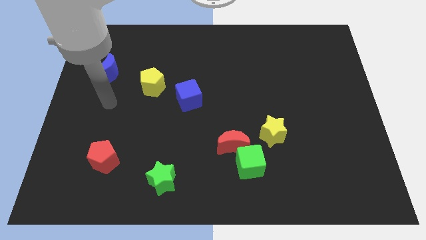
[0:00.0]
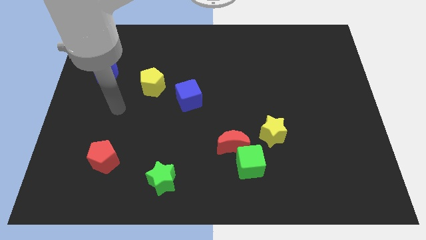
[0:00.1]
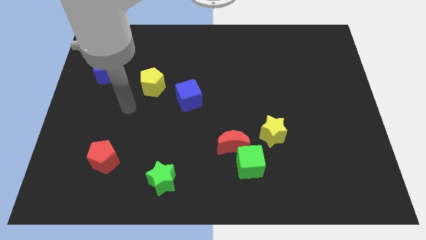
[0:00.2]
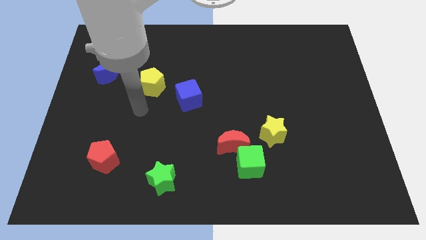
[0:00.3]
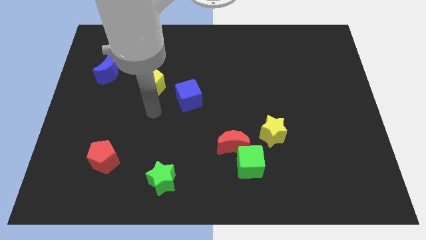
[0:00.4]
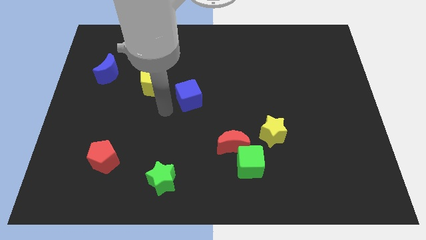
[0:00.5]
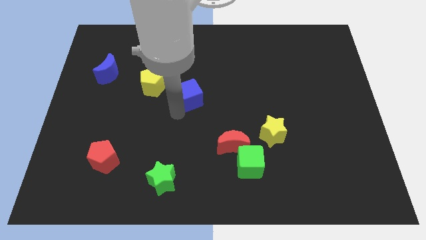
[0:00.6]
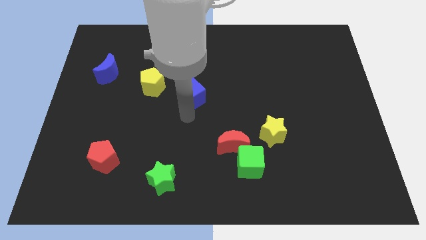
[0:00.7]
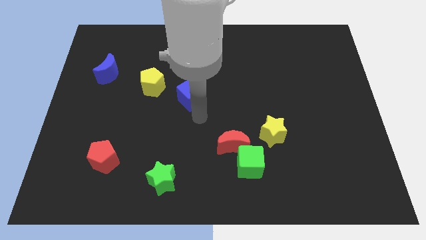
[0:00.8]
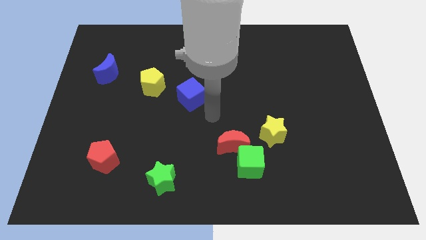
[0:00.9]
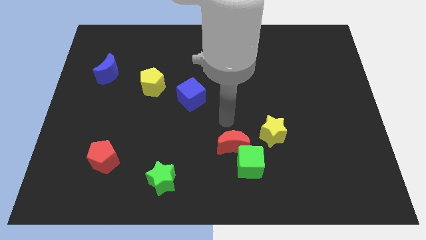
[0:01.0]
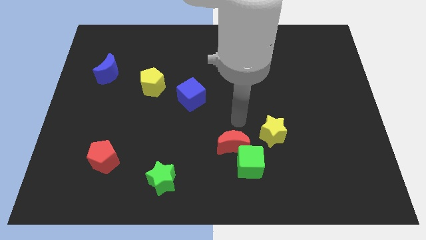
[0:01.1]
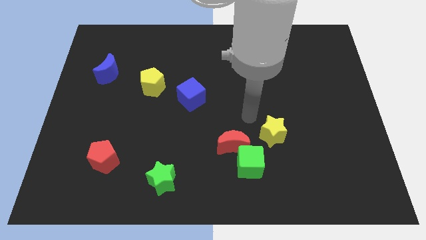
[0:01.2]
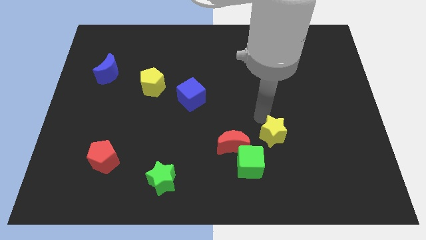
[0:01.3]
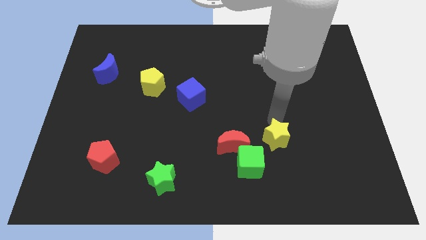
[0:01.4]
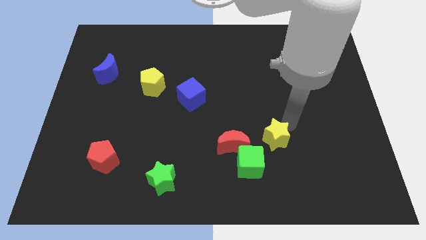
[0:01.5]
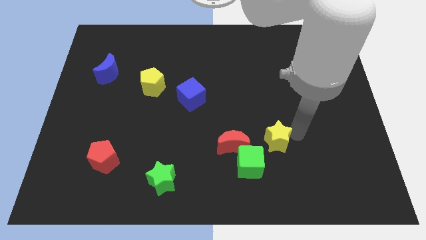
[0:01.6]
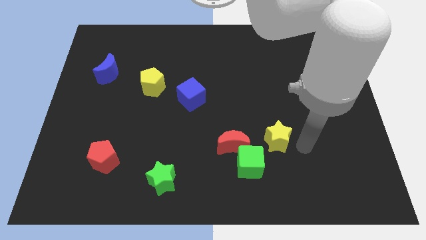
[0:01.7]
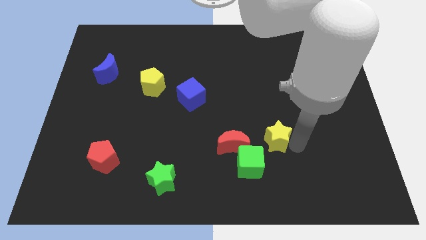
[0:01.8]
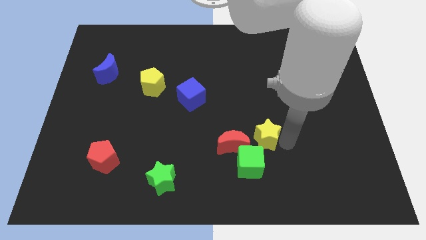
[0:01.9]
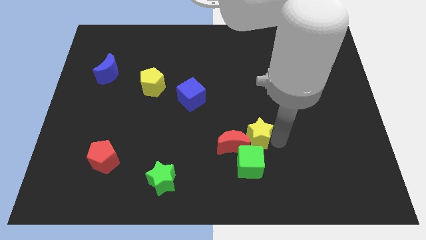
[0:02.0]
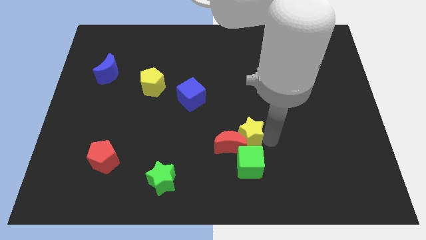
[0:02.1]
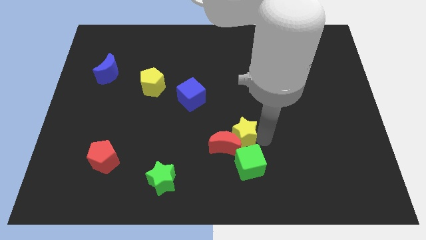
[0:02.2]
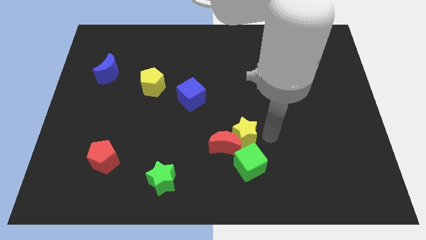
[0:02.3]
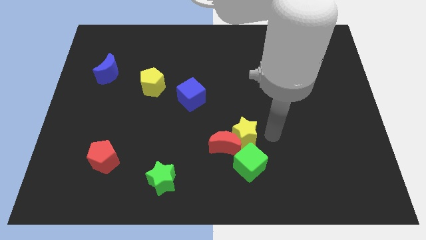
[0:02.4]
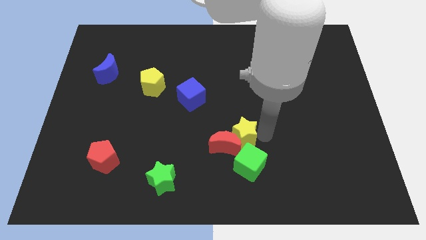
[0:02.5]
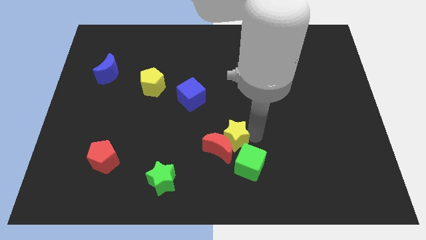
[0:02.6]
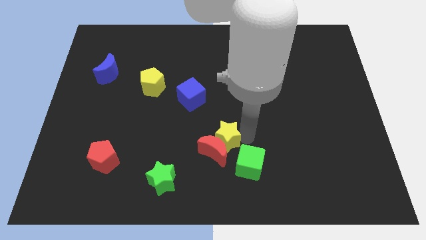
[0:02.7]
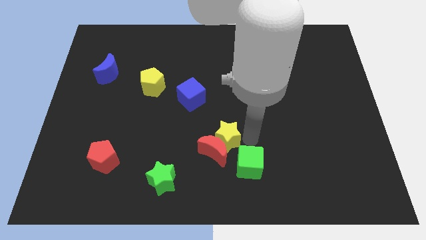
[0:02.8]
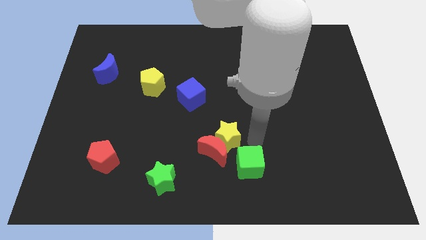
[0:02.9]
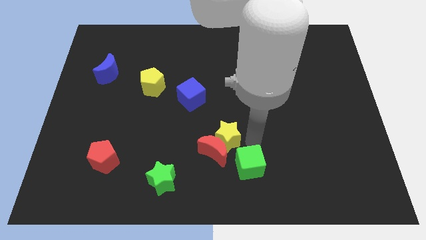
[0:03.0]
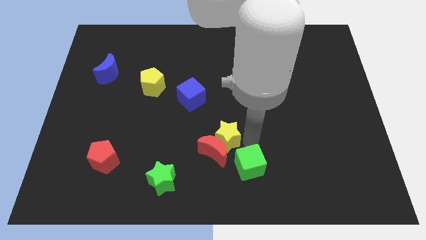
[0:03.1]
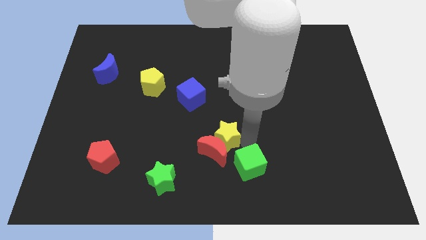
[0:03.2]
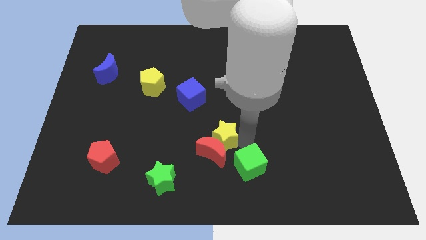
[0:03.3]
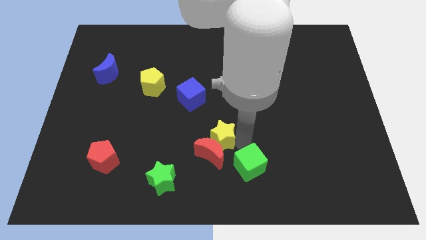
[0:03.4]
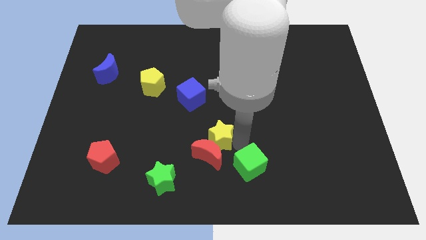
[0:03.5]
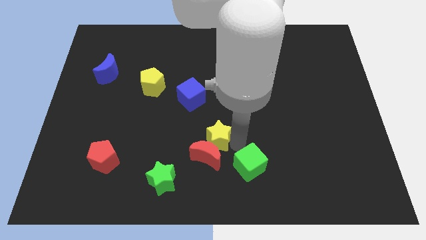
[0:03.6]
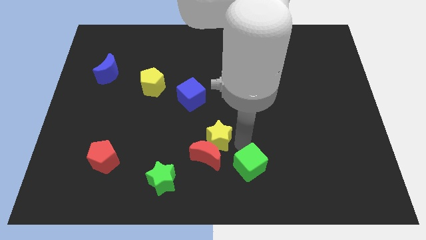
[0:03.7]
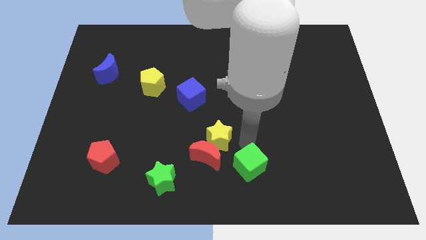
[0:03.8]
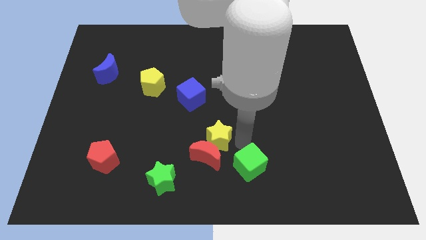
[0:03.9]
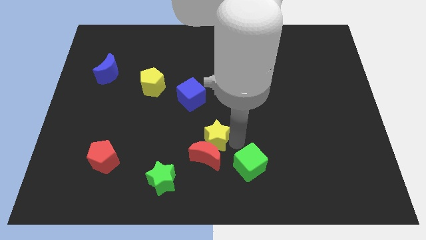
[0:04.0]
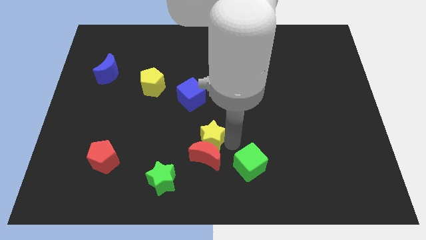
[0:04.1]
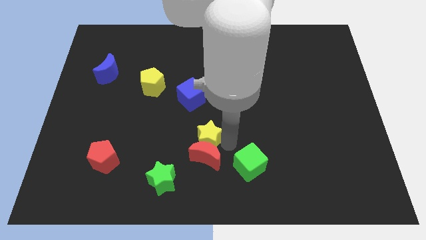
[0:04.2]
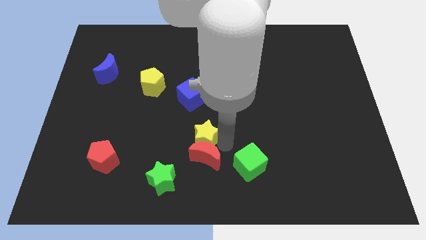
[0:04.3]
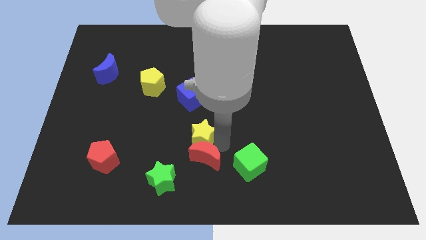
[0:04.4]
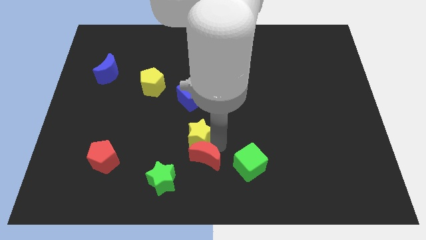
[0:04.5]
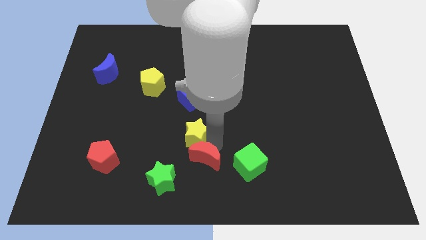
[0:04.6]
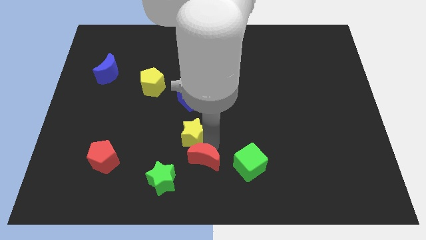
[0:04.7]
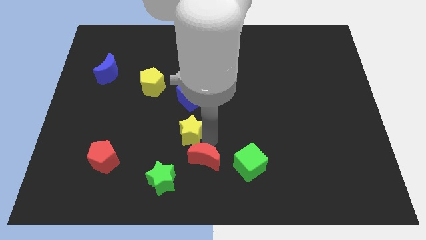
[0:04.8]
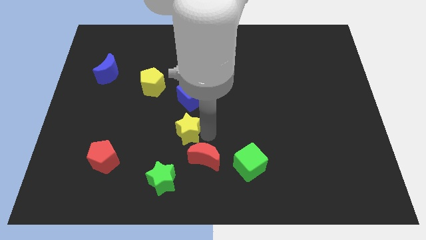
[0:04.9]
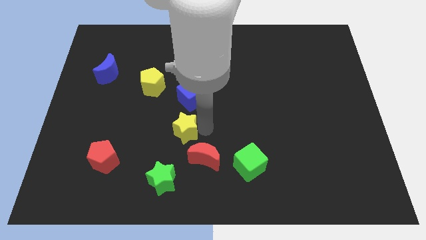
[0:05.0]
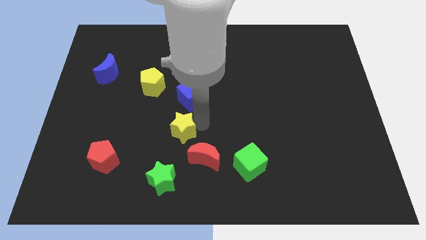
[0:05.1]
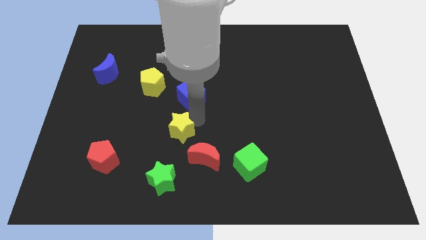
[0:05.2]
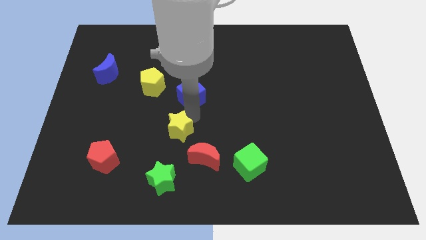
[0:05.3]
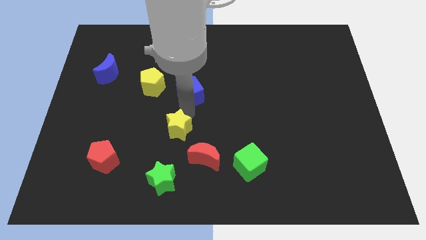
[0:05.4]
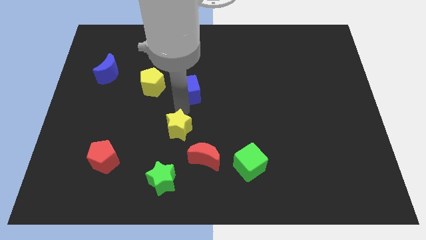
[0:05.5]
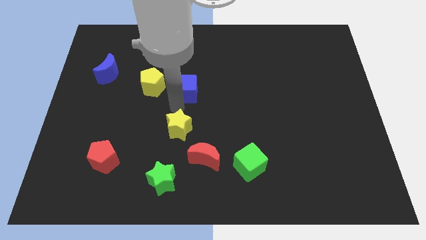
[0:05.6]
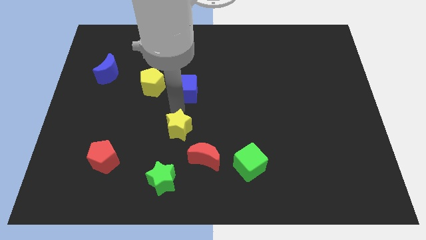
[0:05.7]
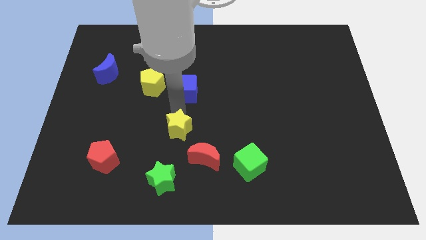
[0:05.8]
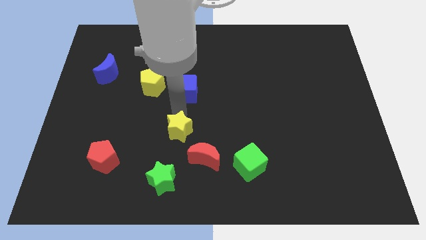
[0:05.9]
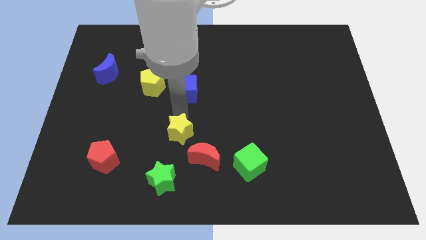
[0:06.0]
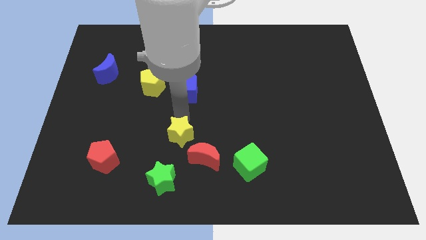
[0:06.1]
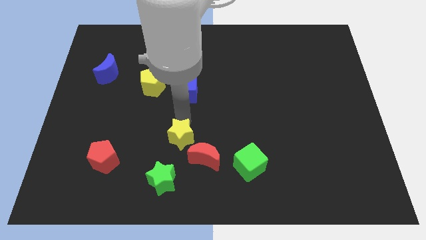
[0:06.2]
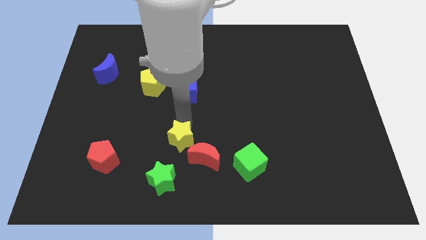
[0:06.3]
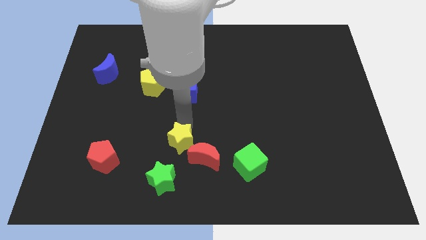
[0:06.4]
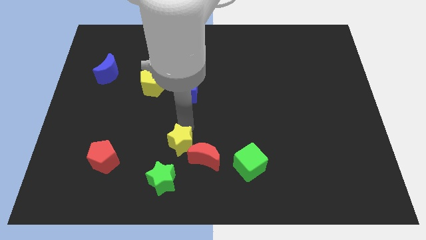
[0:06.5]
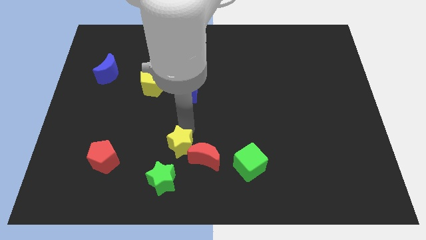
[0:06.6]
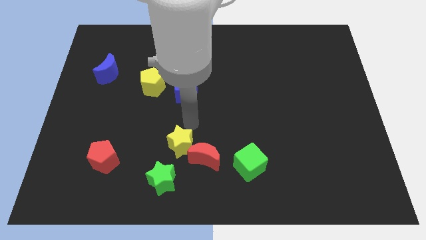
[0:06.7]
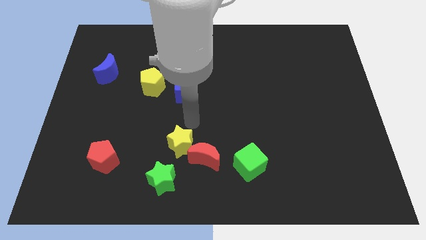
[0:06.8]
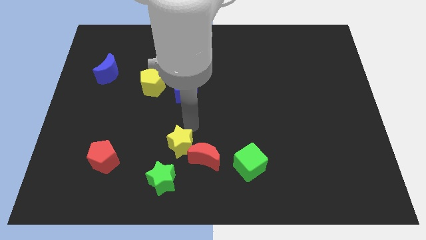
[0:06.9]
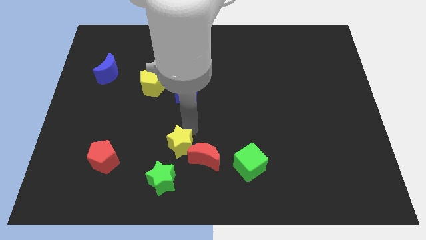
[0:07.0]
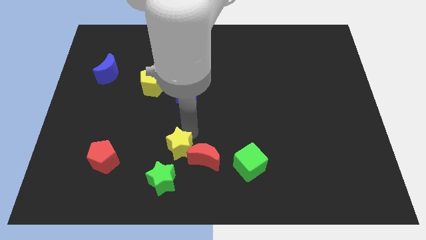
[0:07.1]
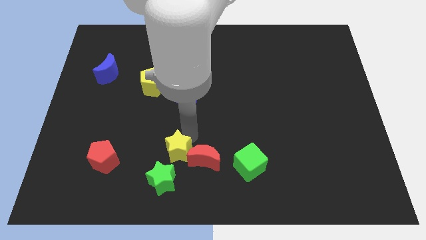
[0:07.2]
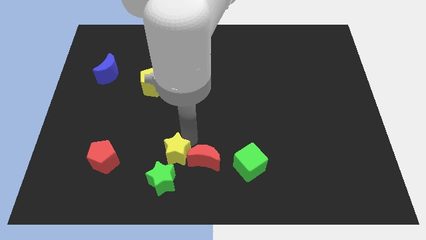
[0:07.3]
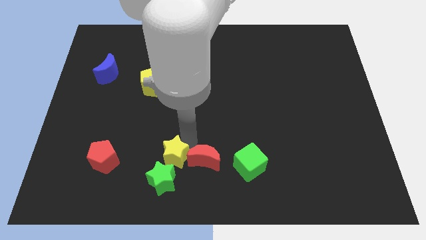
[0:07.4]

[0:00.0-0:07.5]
slide the yellow star close to the green star

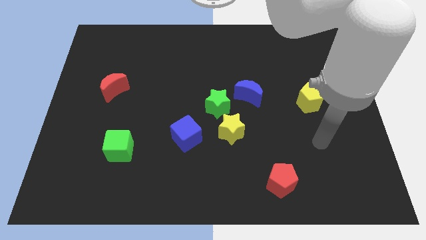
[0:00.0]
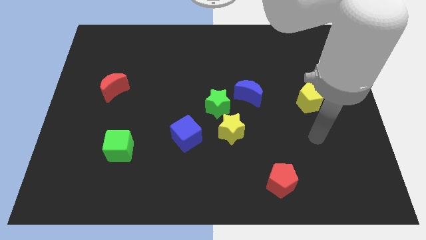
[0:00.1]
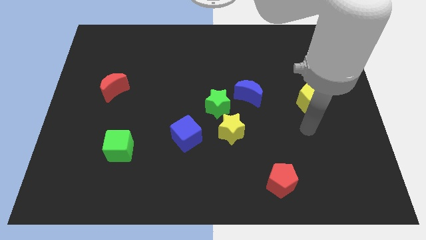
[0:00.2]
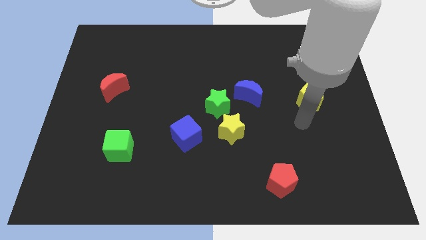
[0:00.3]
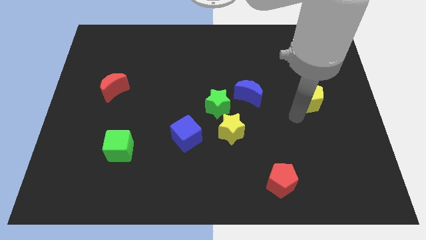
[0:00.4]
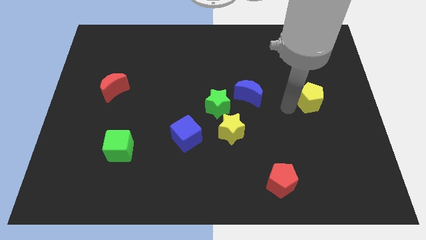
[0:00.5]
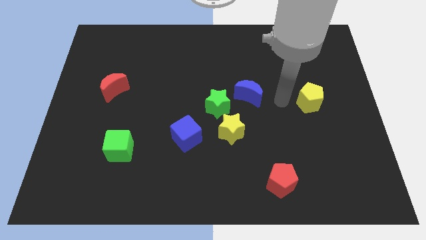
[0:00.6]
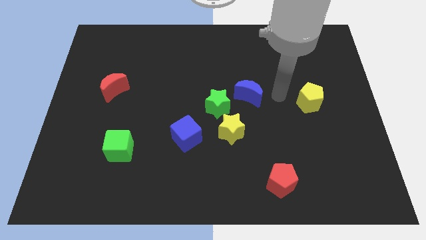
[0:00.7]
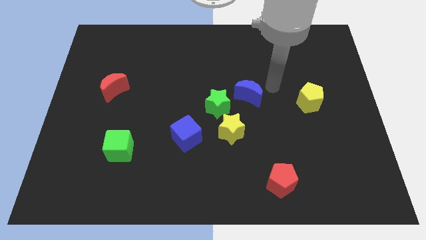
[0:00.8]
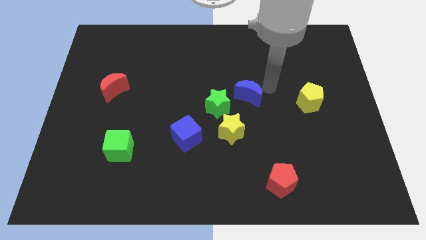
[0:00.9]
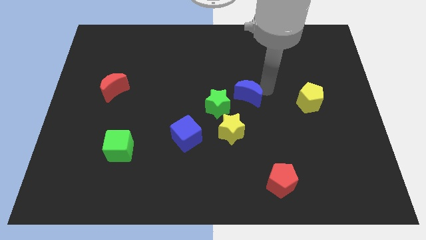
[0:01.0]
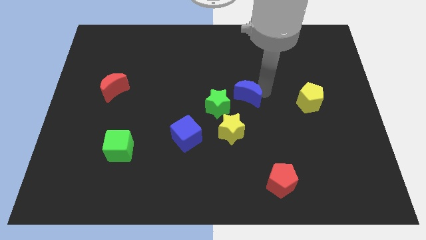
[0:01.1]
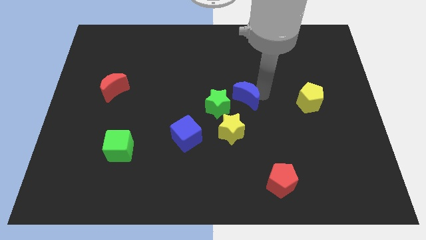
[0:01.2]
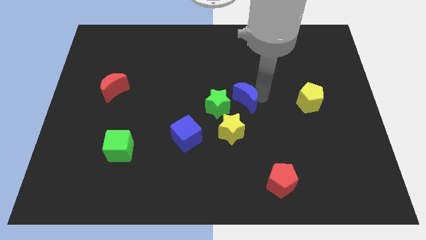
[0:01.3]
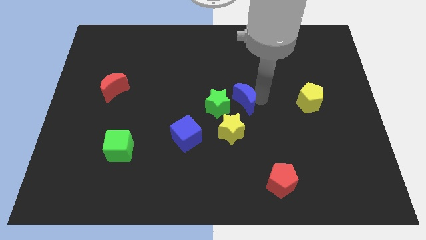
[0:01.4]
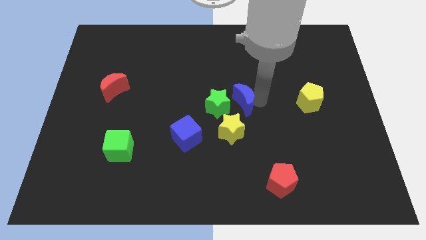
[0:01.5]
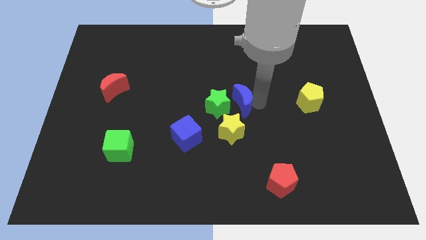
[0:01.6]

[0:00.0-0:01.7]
move the blue moon close to the green star
